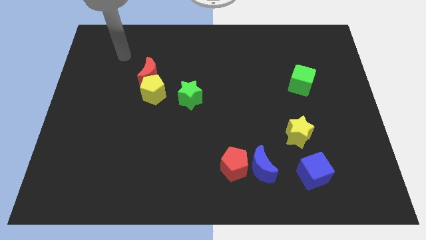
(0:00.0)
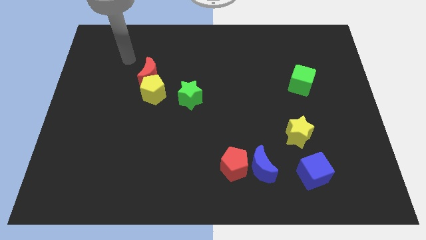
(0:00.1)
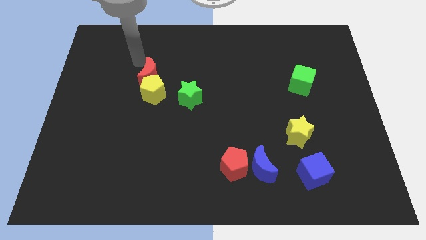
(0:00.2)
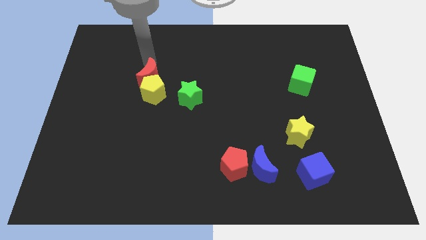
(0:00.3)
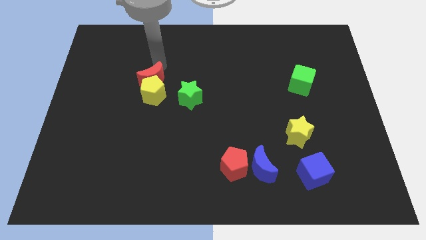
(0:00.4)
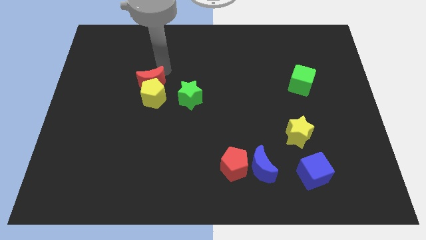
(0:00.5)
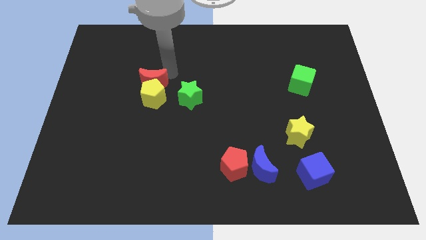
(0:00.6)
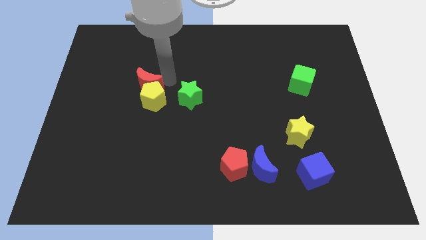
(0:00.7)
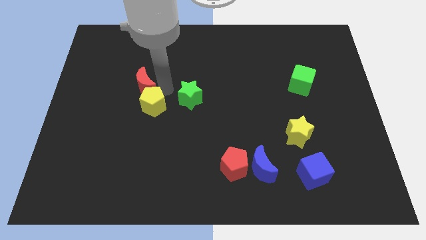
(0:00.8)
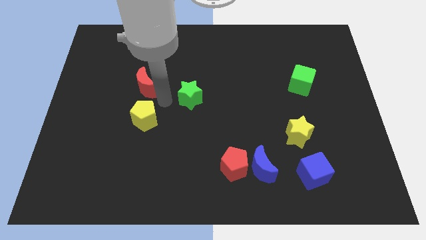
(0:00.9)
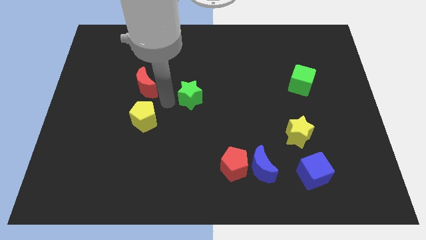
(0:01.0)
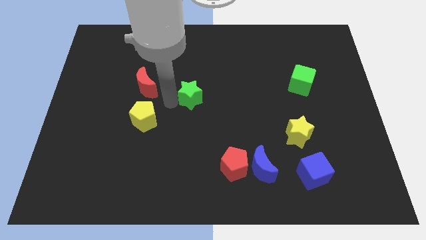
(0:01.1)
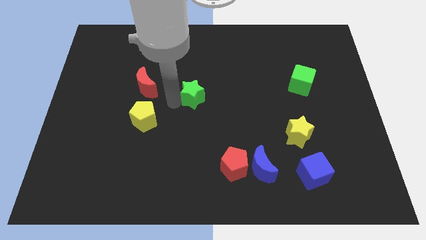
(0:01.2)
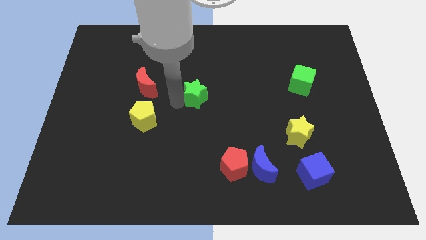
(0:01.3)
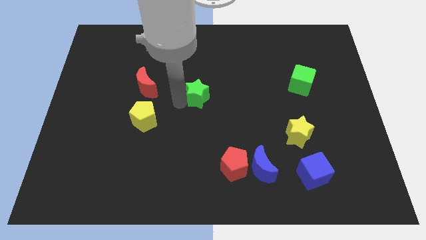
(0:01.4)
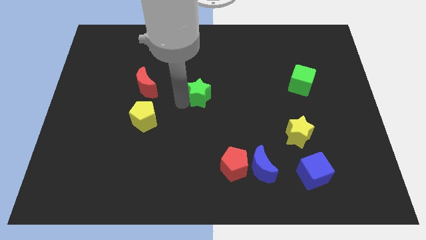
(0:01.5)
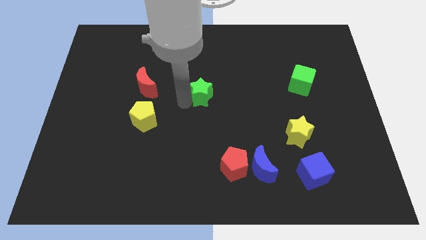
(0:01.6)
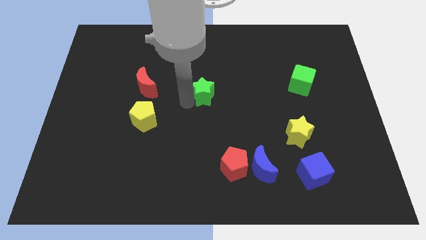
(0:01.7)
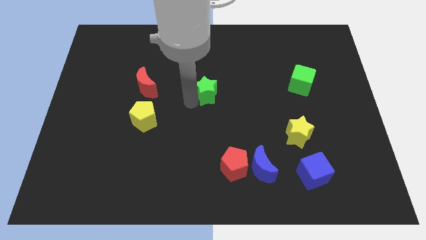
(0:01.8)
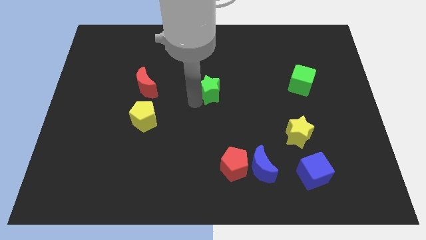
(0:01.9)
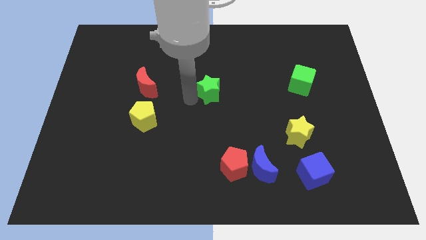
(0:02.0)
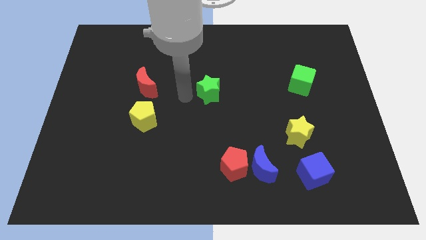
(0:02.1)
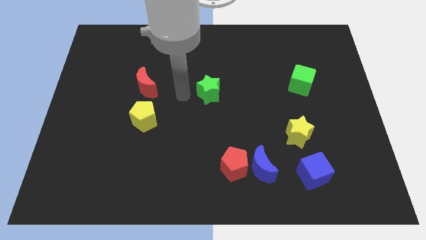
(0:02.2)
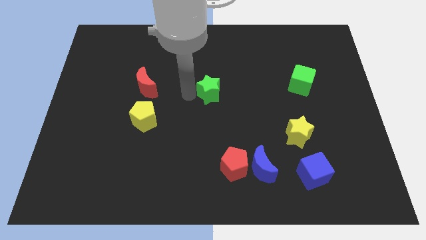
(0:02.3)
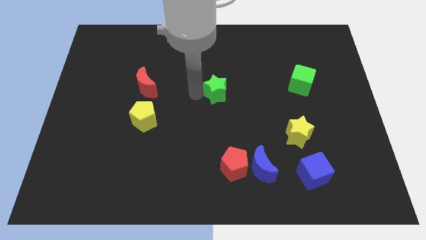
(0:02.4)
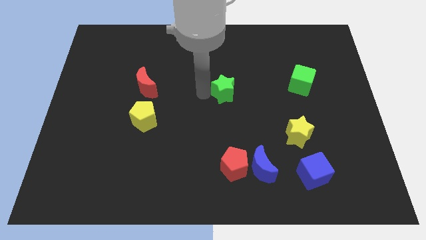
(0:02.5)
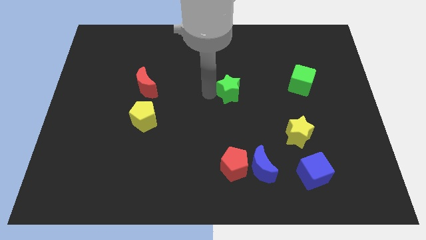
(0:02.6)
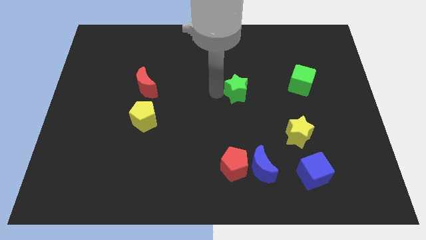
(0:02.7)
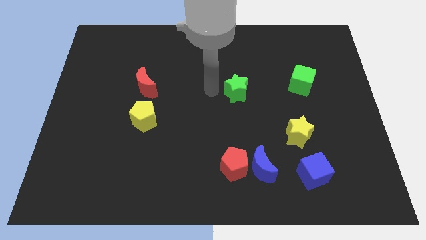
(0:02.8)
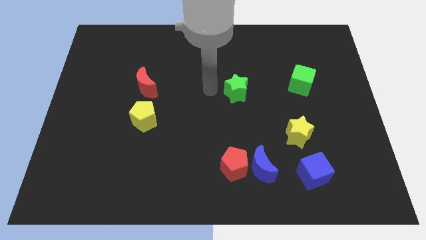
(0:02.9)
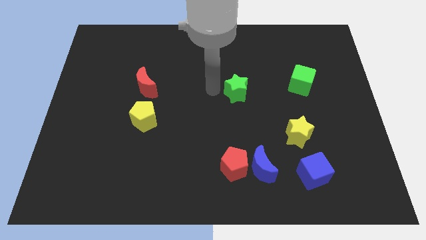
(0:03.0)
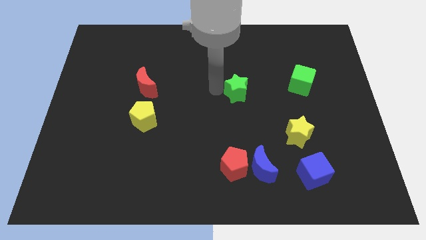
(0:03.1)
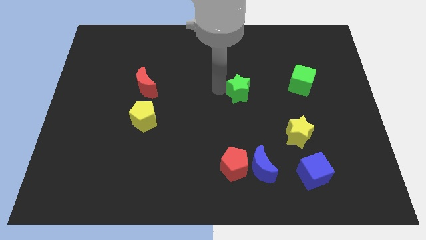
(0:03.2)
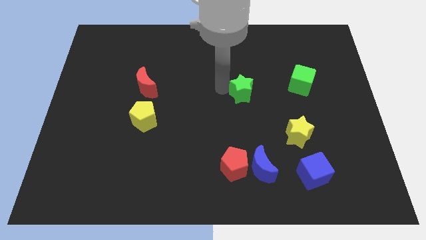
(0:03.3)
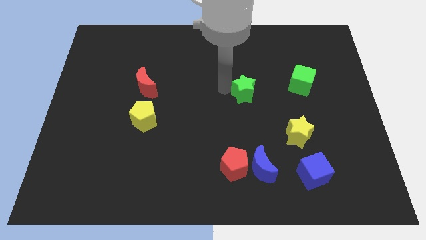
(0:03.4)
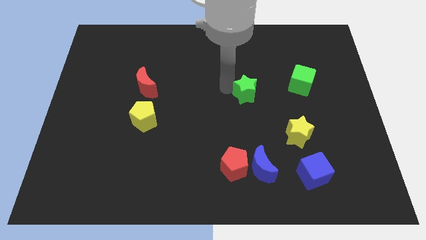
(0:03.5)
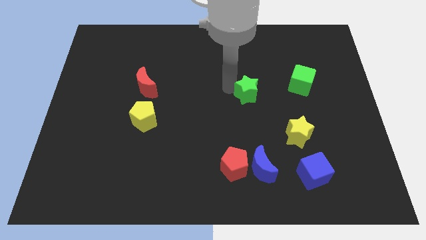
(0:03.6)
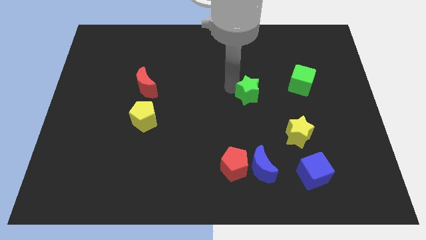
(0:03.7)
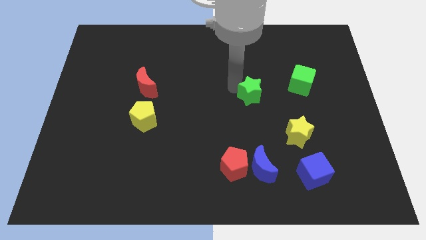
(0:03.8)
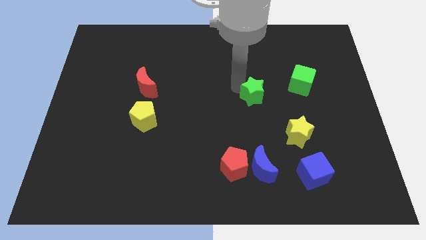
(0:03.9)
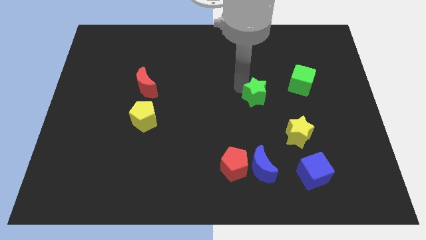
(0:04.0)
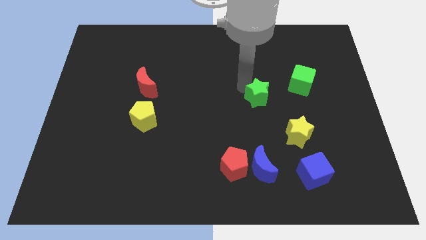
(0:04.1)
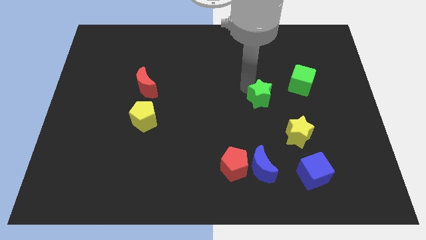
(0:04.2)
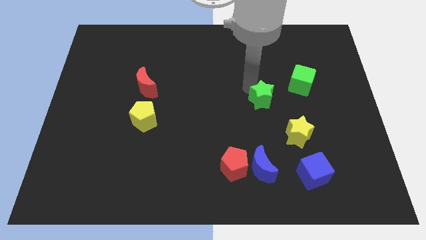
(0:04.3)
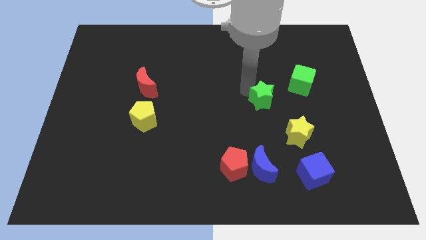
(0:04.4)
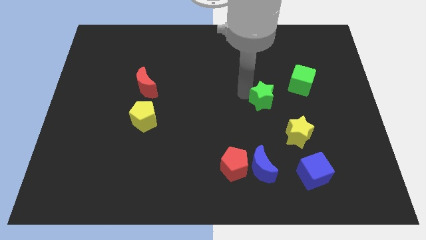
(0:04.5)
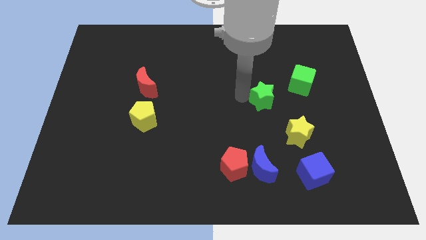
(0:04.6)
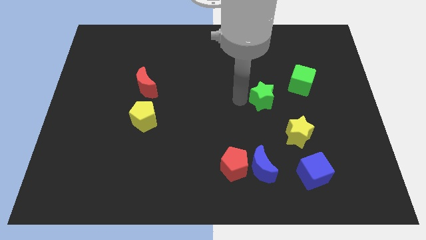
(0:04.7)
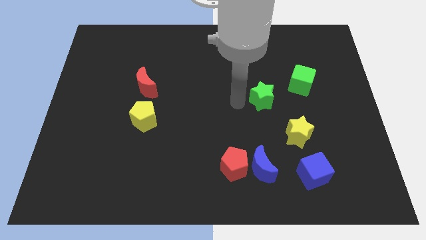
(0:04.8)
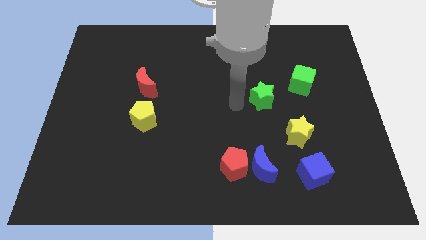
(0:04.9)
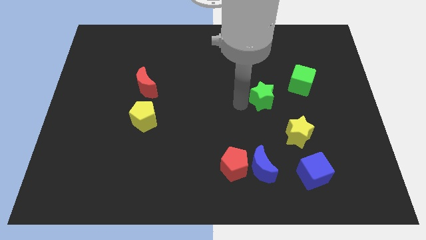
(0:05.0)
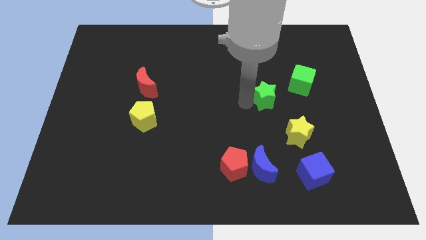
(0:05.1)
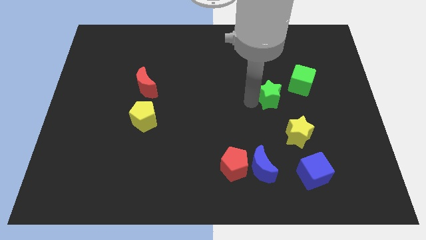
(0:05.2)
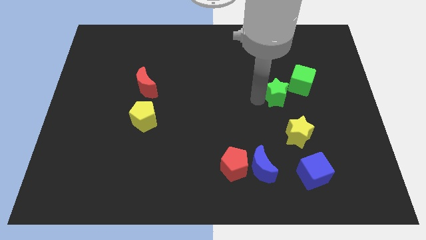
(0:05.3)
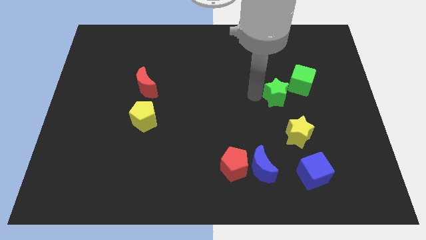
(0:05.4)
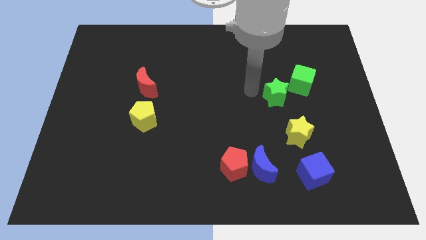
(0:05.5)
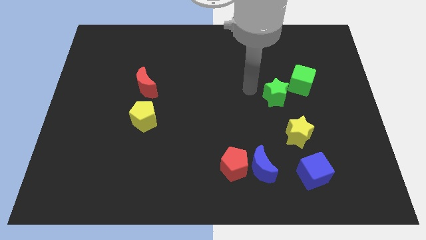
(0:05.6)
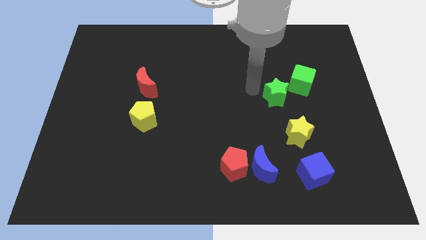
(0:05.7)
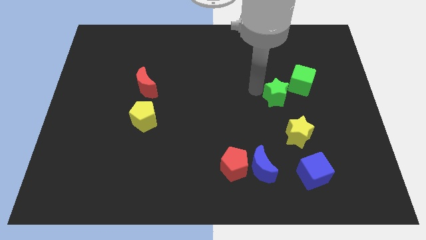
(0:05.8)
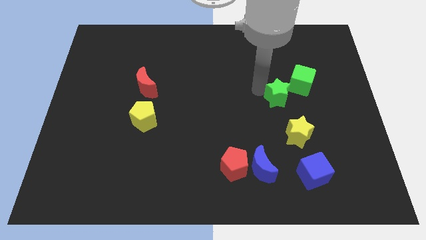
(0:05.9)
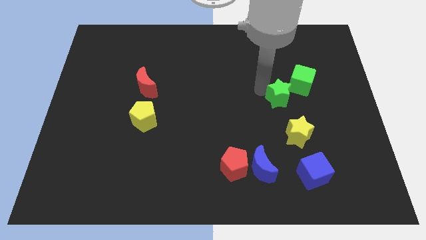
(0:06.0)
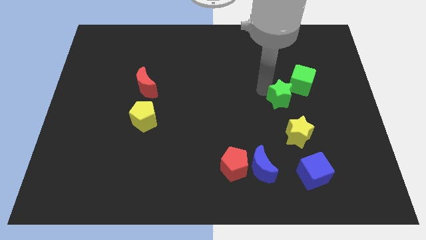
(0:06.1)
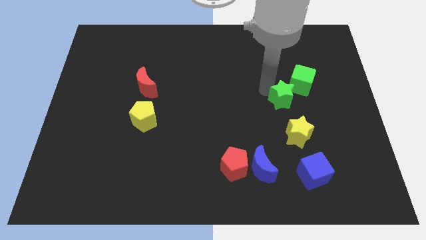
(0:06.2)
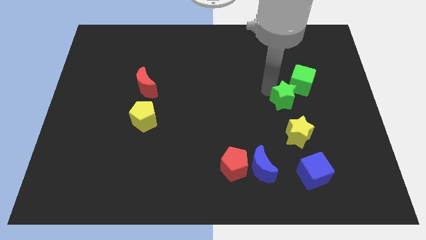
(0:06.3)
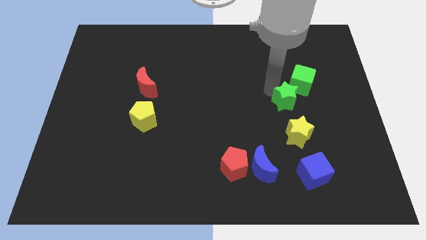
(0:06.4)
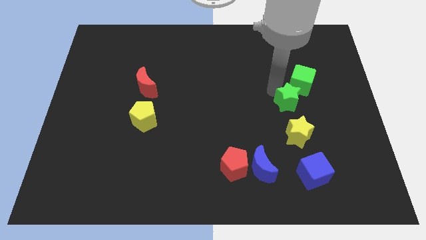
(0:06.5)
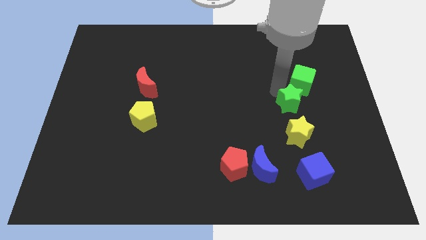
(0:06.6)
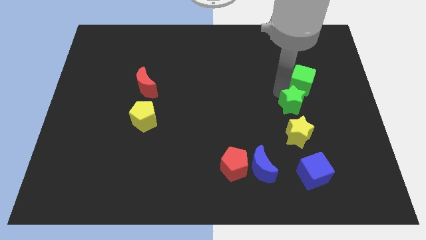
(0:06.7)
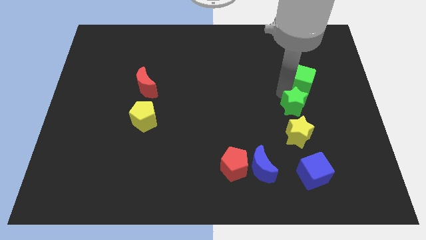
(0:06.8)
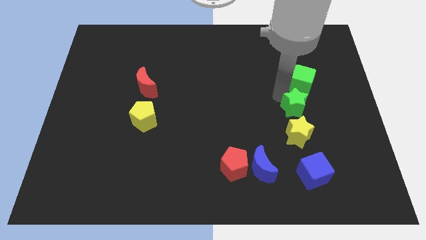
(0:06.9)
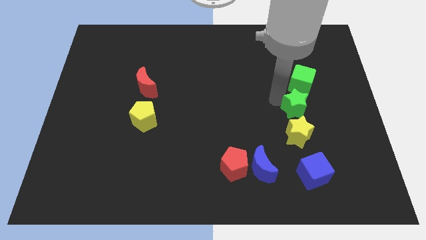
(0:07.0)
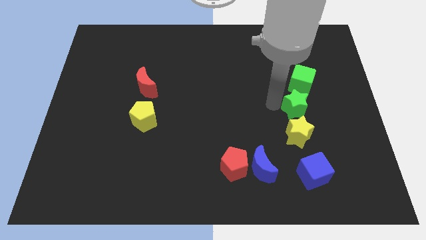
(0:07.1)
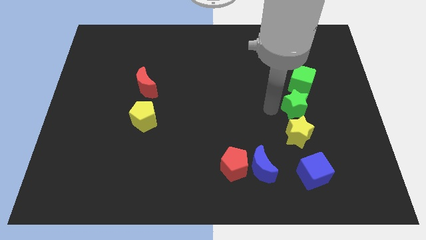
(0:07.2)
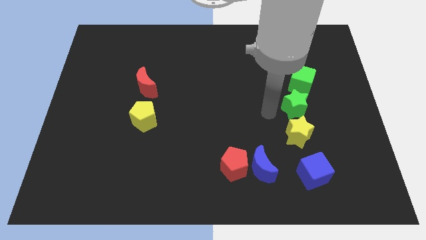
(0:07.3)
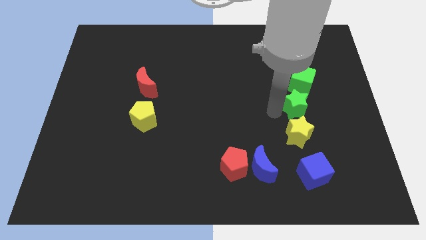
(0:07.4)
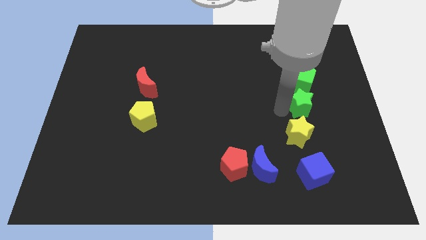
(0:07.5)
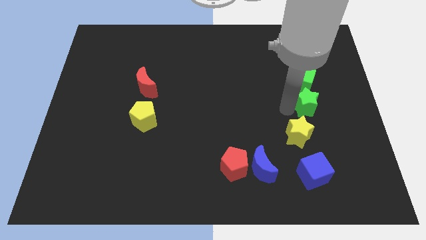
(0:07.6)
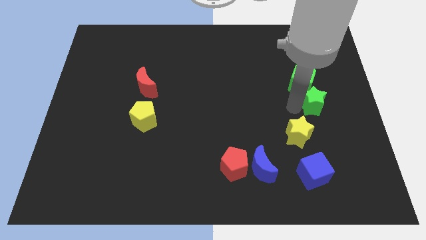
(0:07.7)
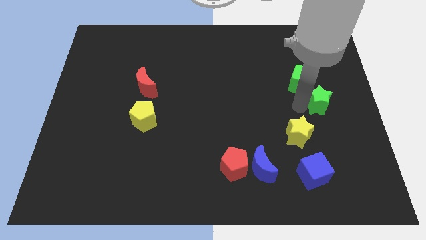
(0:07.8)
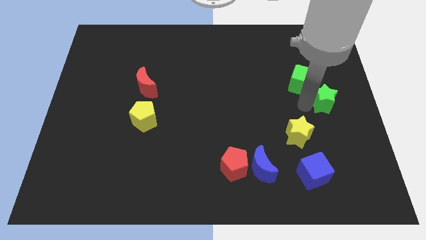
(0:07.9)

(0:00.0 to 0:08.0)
slide the green star to the right side of the board
